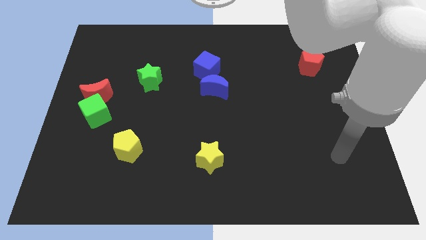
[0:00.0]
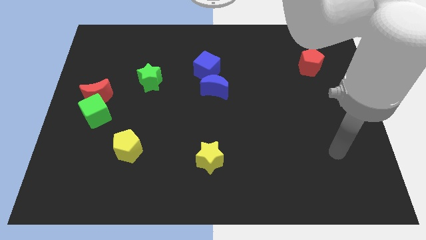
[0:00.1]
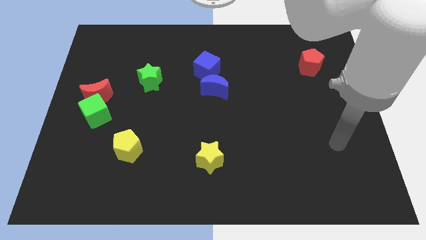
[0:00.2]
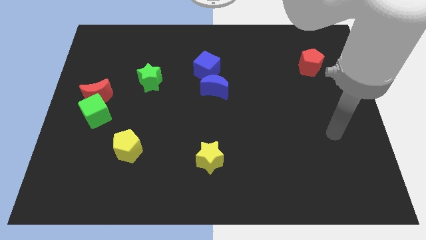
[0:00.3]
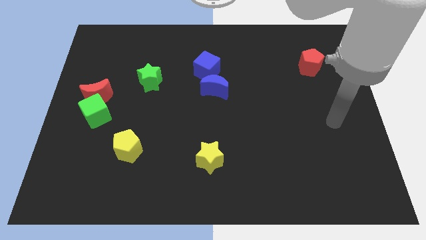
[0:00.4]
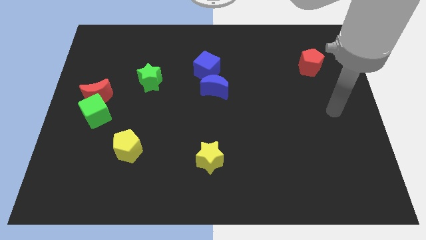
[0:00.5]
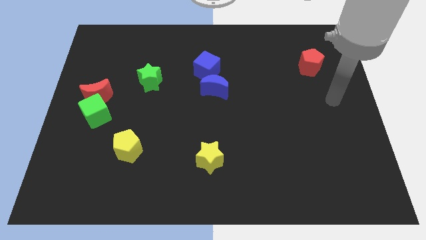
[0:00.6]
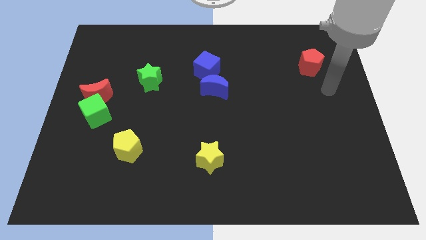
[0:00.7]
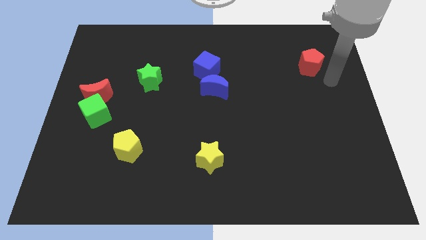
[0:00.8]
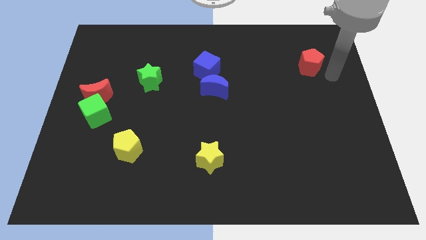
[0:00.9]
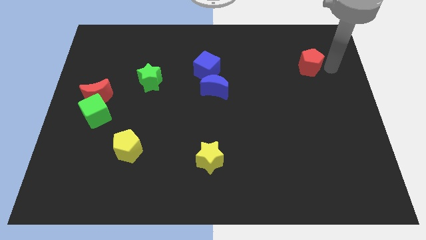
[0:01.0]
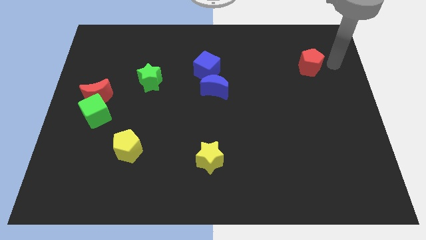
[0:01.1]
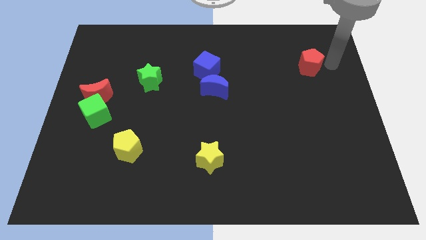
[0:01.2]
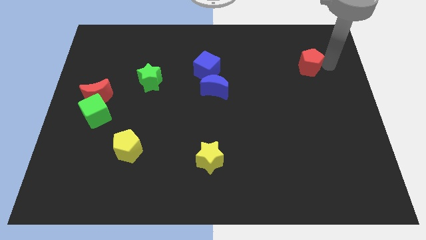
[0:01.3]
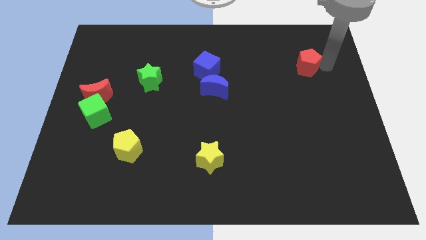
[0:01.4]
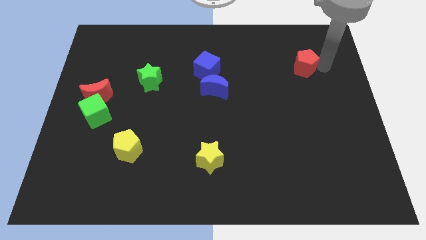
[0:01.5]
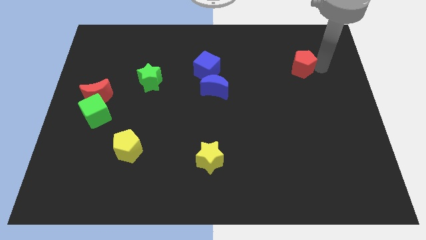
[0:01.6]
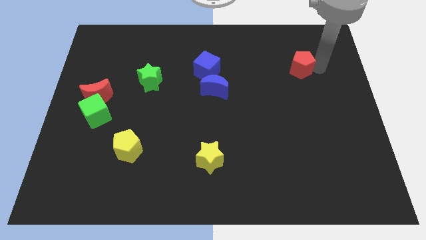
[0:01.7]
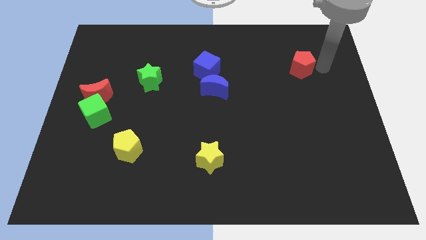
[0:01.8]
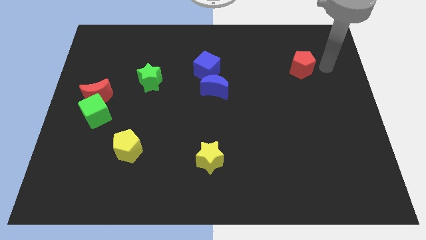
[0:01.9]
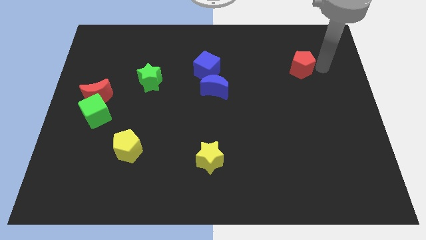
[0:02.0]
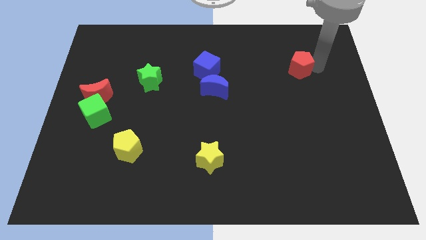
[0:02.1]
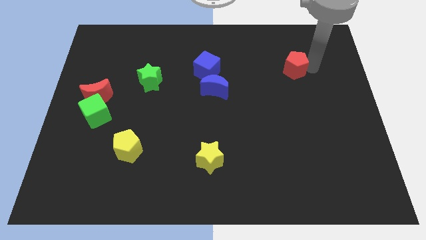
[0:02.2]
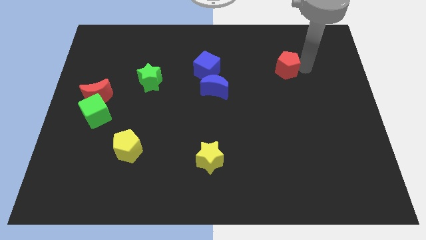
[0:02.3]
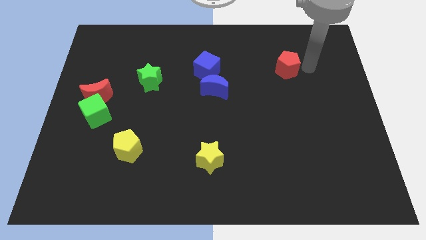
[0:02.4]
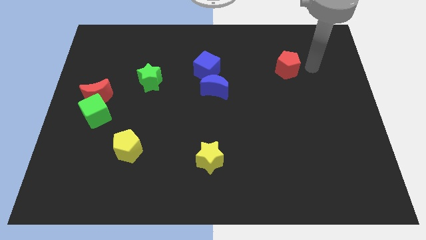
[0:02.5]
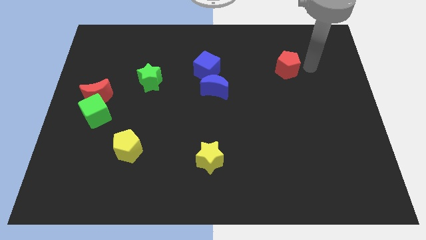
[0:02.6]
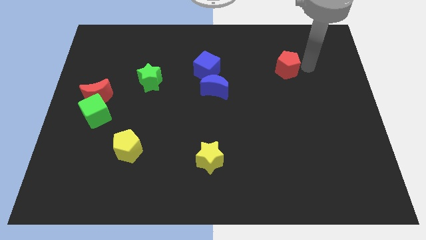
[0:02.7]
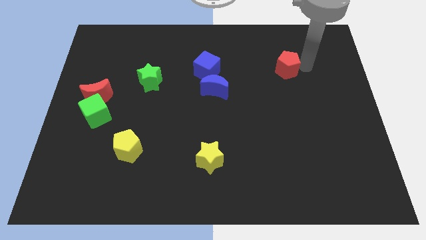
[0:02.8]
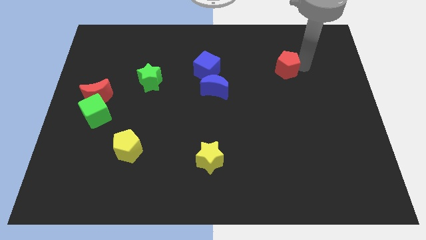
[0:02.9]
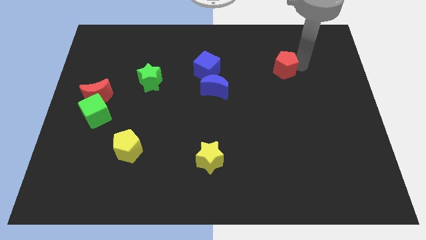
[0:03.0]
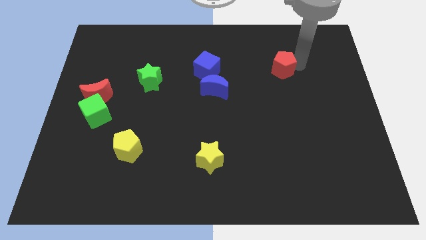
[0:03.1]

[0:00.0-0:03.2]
push the red pentagon slightly to the left

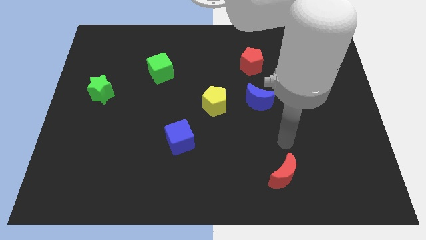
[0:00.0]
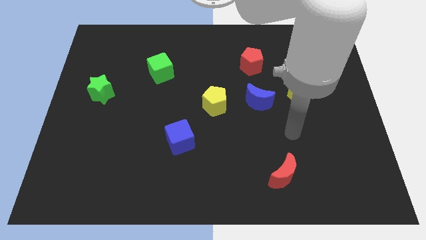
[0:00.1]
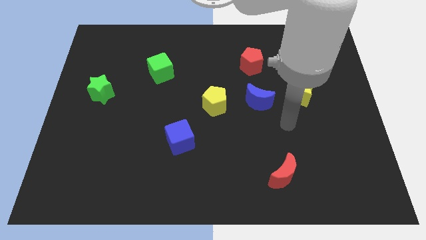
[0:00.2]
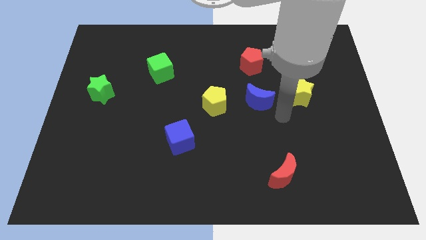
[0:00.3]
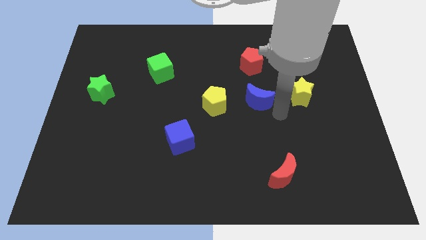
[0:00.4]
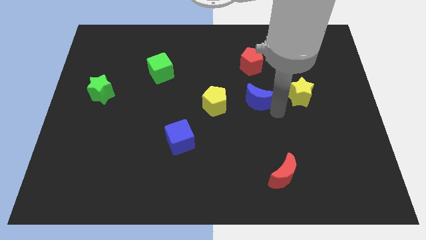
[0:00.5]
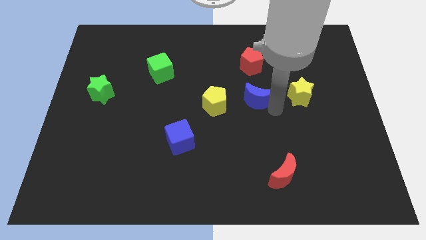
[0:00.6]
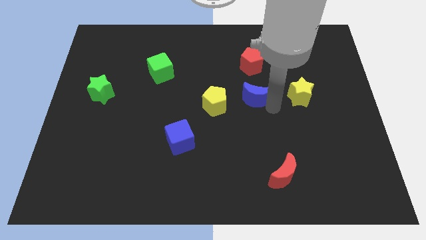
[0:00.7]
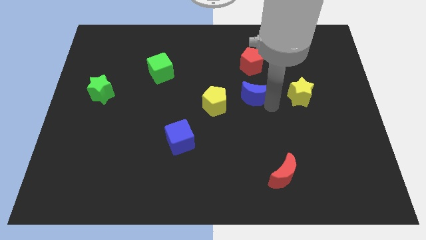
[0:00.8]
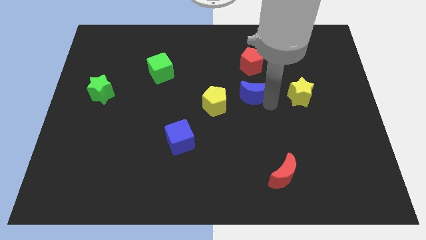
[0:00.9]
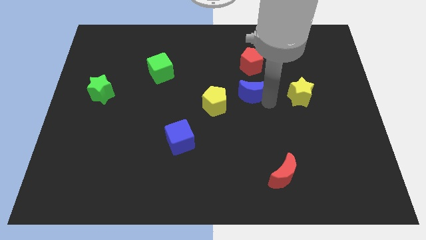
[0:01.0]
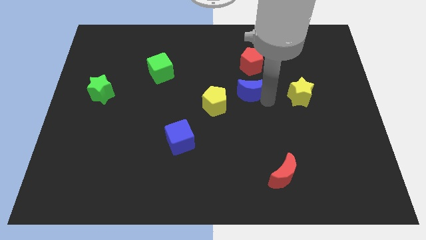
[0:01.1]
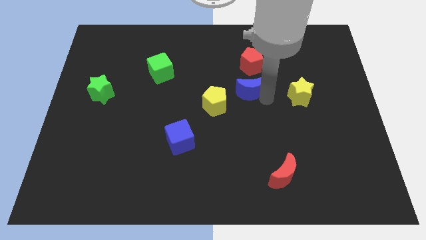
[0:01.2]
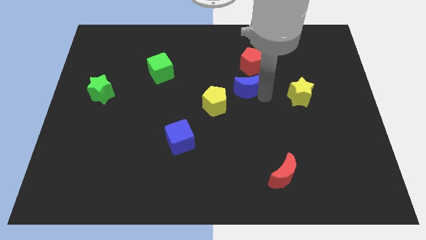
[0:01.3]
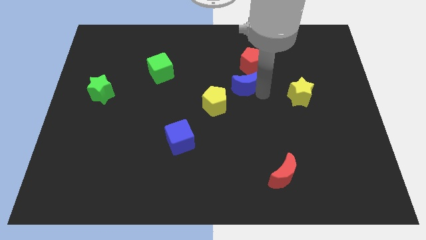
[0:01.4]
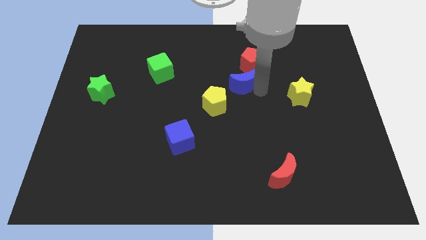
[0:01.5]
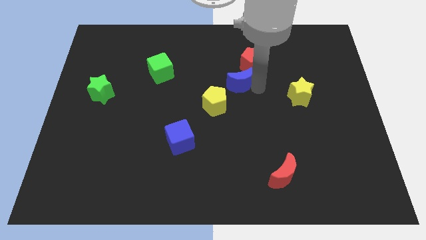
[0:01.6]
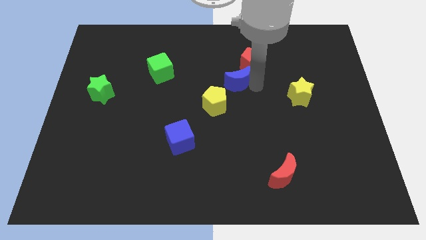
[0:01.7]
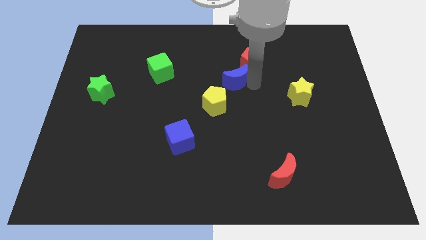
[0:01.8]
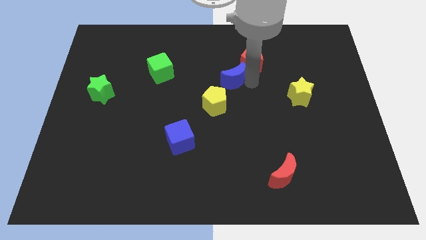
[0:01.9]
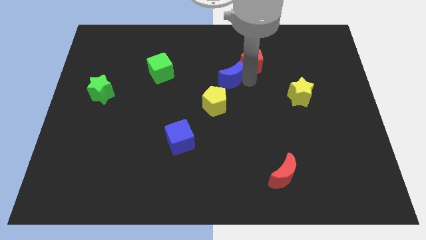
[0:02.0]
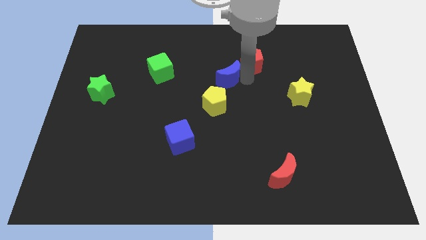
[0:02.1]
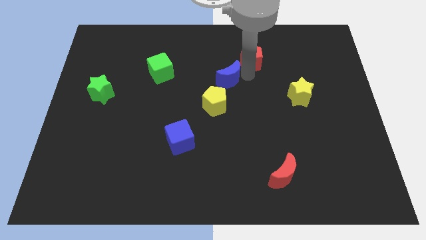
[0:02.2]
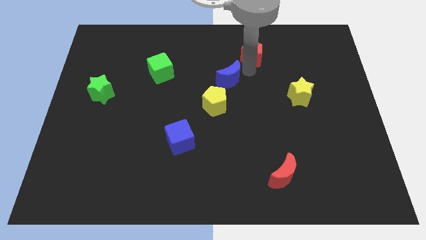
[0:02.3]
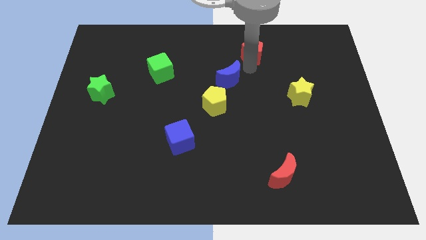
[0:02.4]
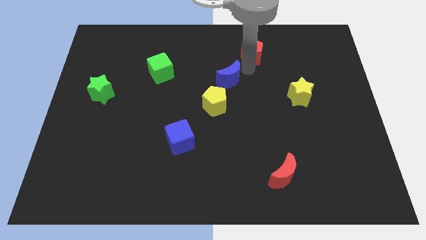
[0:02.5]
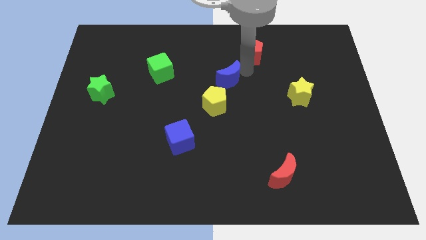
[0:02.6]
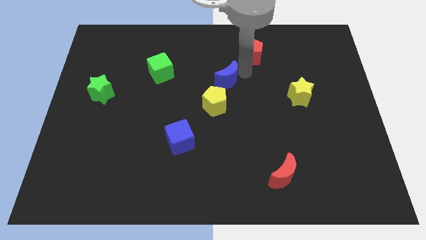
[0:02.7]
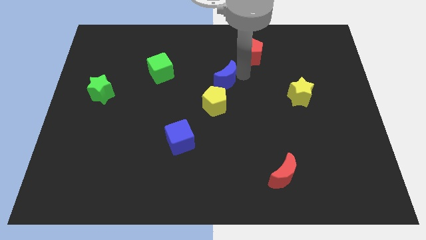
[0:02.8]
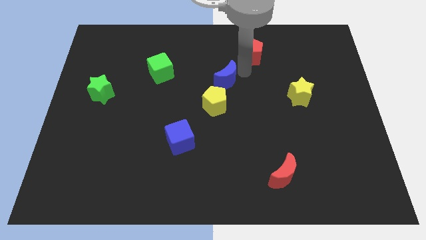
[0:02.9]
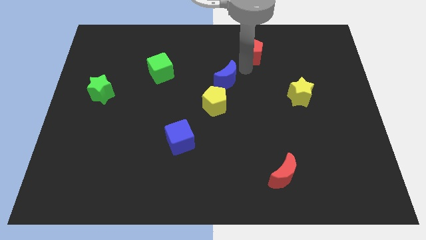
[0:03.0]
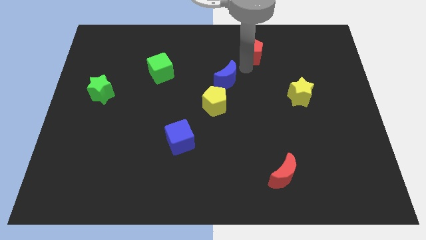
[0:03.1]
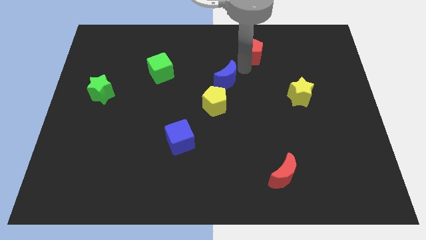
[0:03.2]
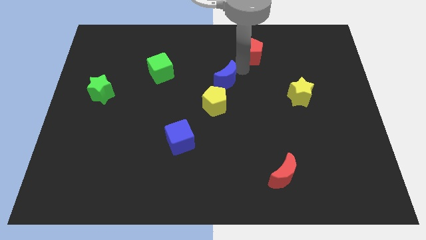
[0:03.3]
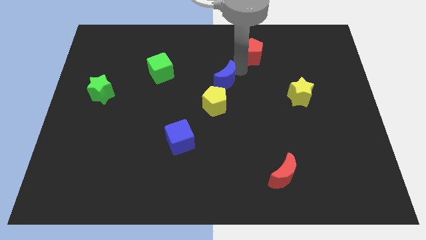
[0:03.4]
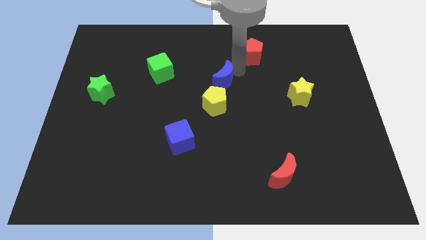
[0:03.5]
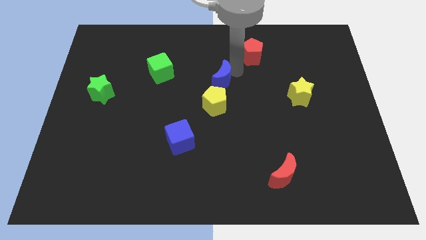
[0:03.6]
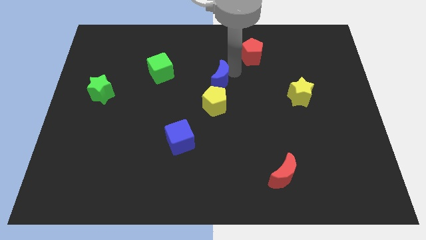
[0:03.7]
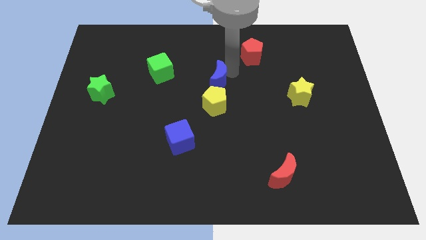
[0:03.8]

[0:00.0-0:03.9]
slightly push the blue moon to the left

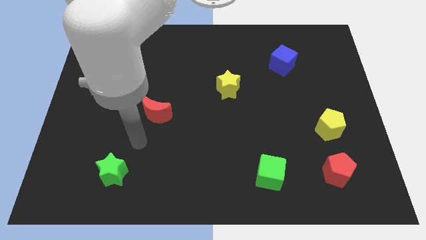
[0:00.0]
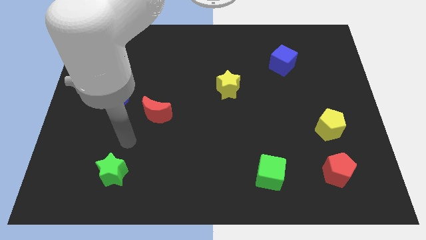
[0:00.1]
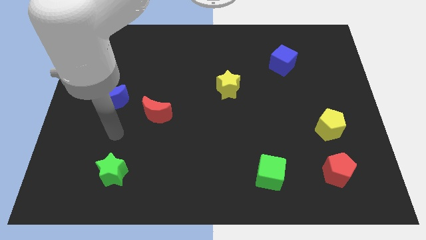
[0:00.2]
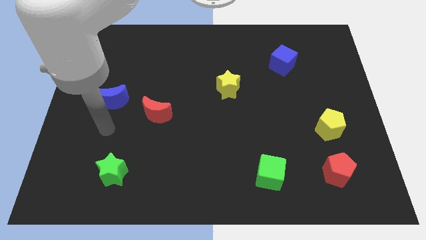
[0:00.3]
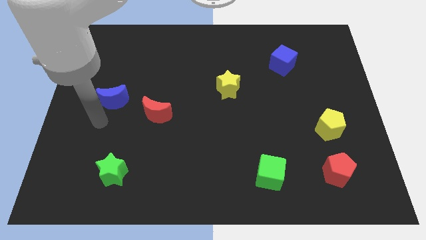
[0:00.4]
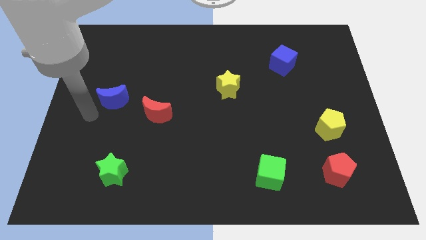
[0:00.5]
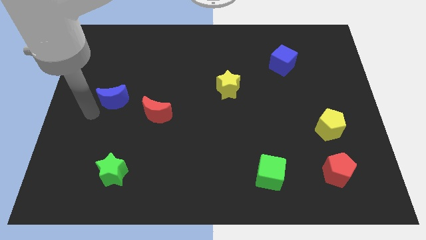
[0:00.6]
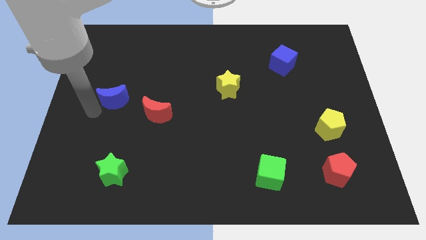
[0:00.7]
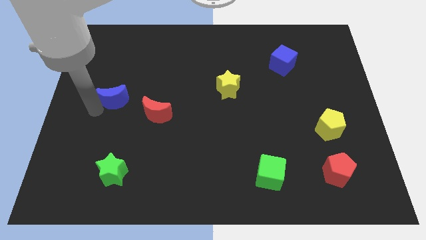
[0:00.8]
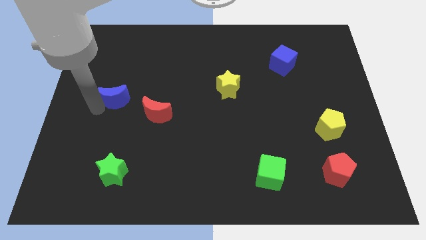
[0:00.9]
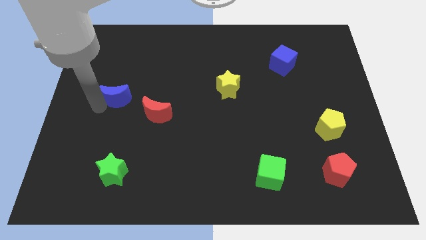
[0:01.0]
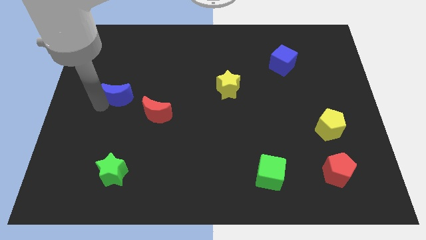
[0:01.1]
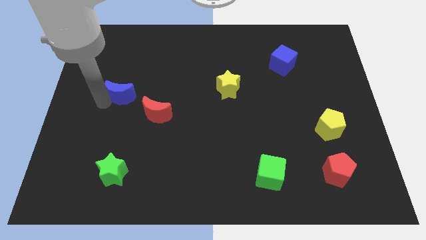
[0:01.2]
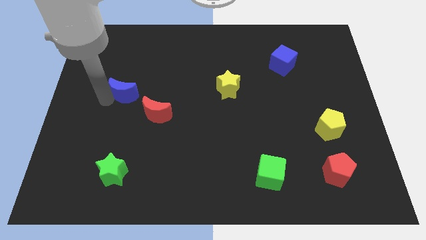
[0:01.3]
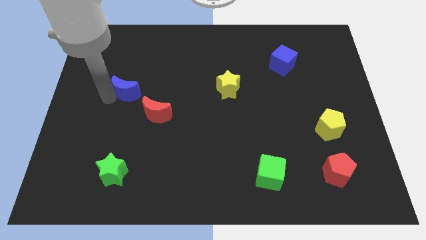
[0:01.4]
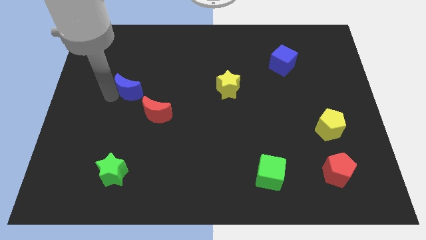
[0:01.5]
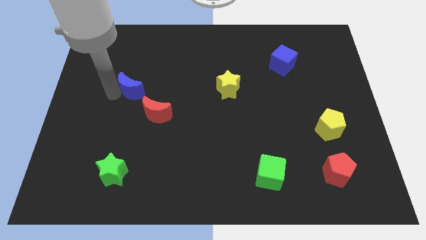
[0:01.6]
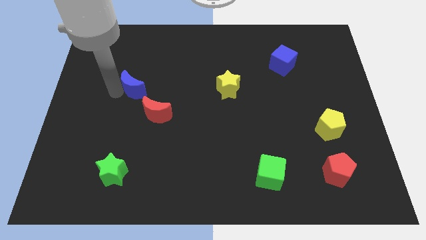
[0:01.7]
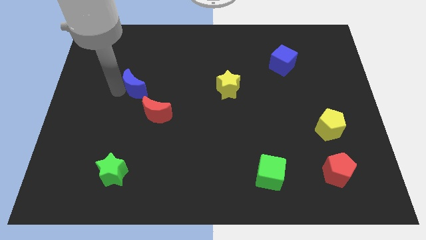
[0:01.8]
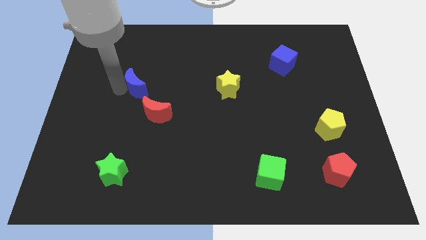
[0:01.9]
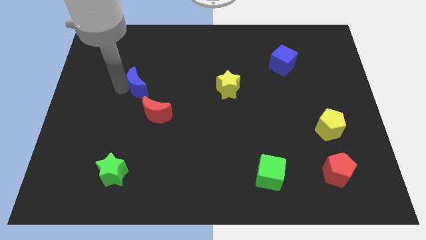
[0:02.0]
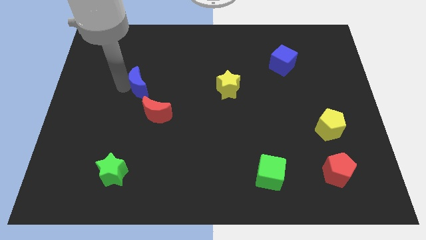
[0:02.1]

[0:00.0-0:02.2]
slightly move the blue moon diagonally up and right
